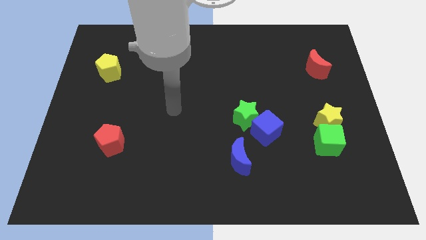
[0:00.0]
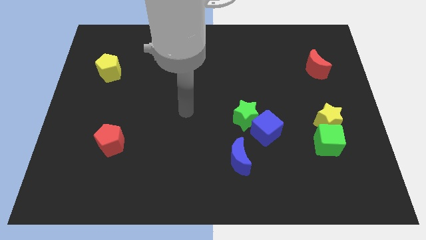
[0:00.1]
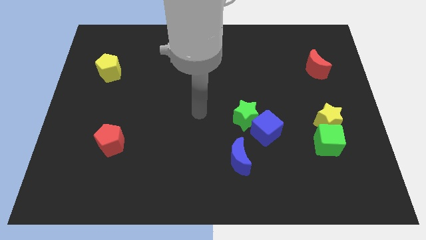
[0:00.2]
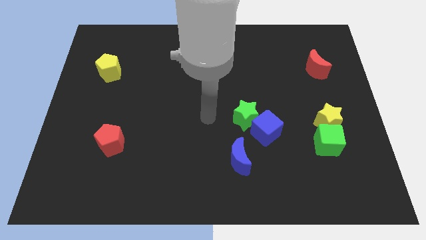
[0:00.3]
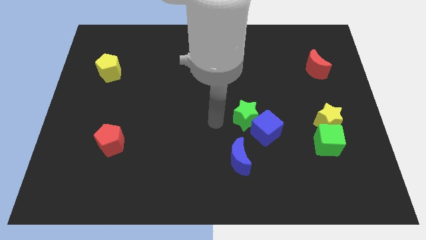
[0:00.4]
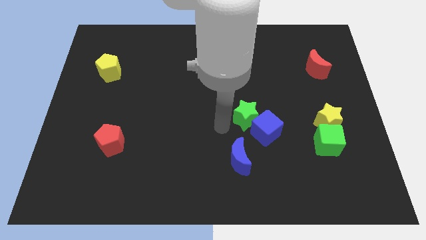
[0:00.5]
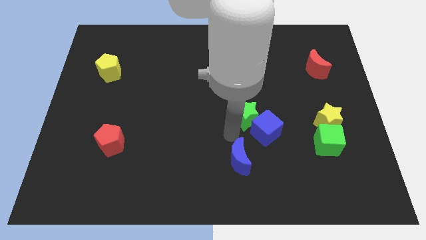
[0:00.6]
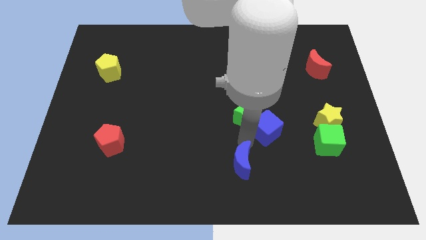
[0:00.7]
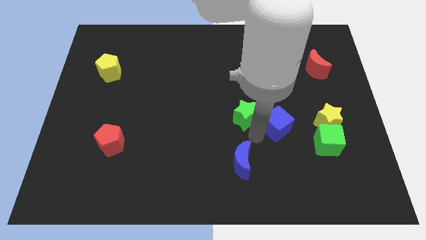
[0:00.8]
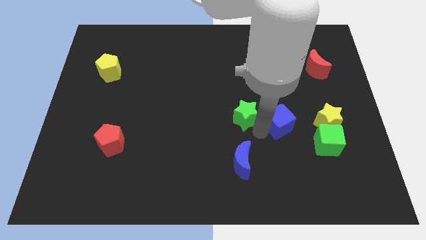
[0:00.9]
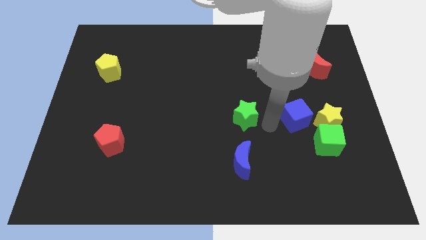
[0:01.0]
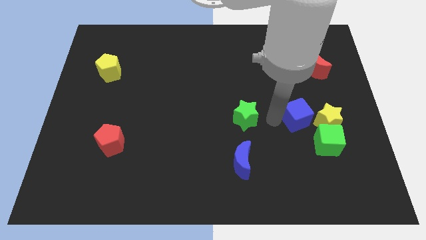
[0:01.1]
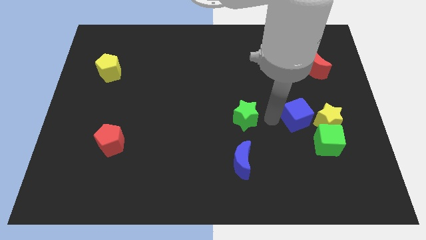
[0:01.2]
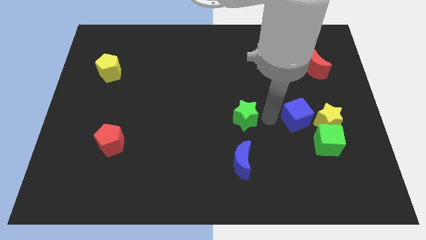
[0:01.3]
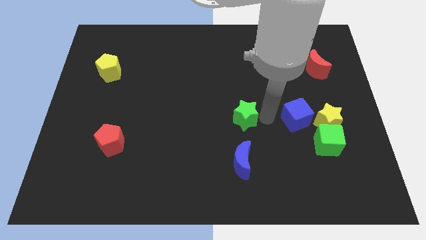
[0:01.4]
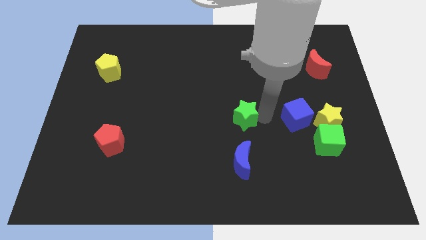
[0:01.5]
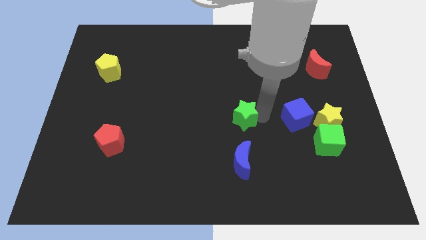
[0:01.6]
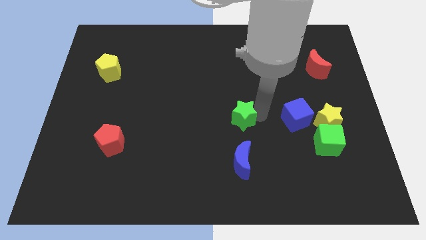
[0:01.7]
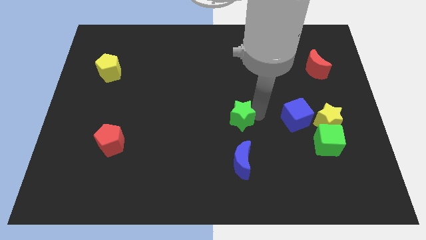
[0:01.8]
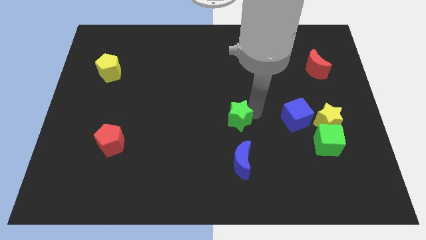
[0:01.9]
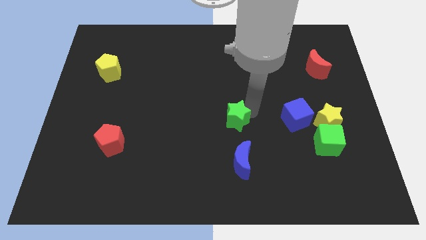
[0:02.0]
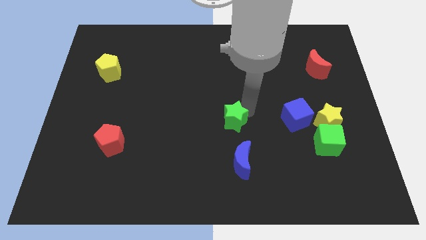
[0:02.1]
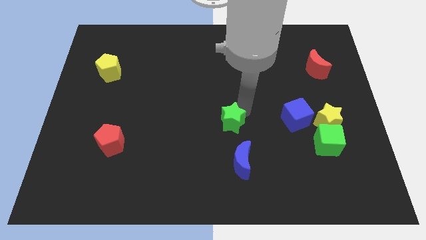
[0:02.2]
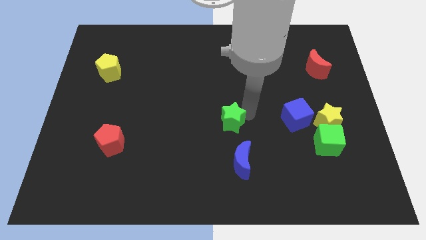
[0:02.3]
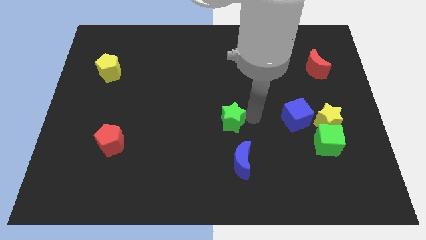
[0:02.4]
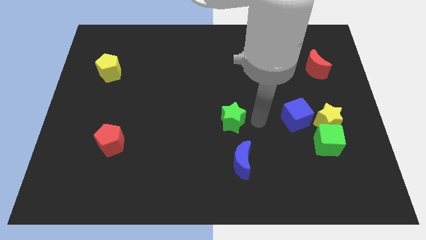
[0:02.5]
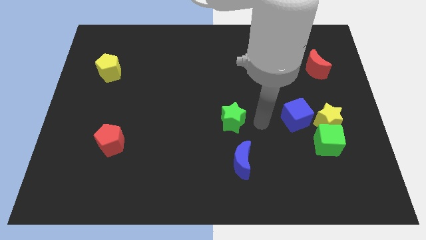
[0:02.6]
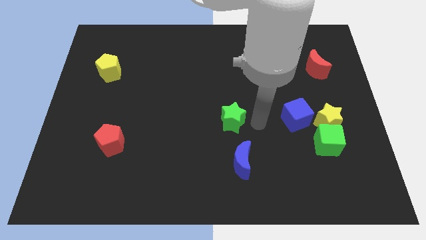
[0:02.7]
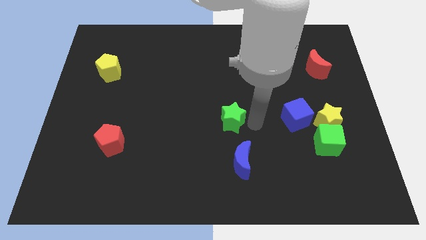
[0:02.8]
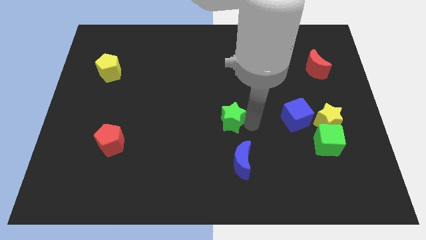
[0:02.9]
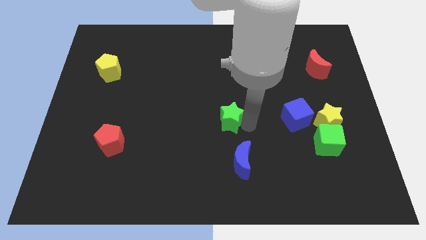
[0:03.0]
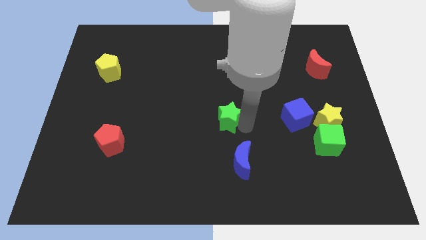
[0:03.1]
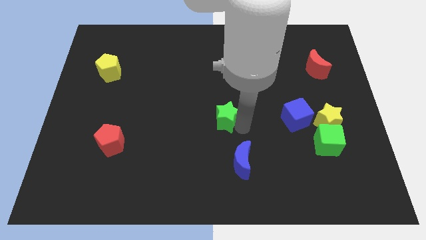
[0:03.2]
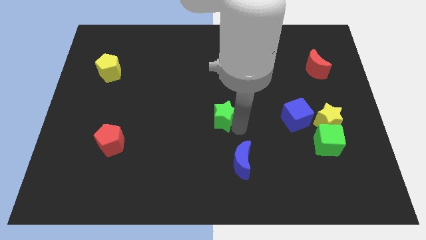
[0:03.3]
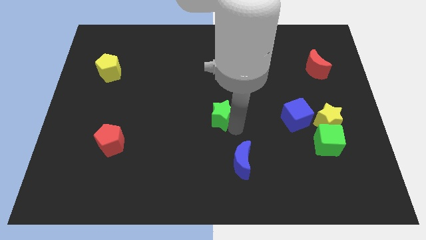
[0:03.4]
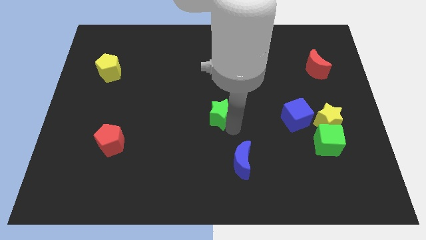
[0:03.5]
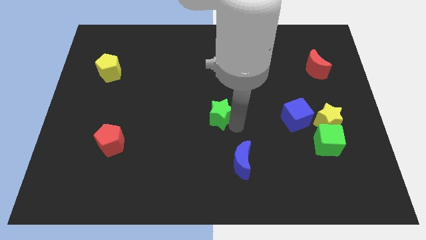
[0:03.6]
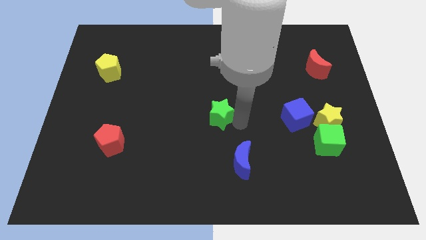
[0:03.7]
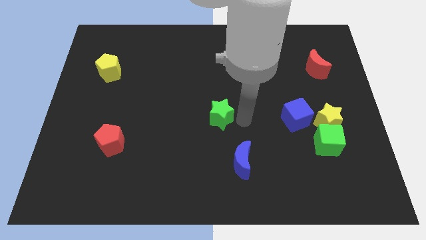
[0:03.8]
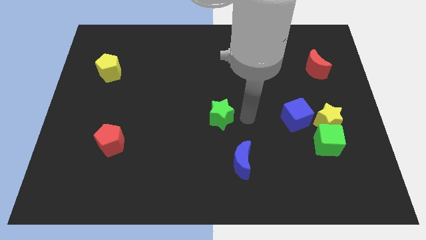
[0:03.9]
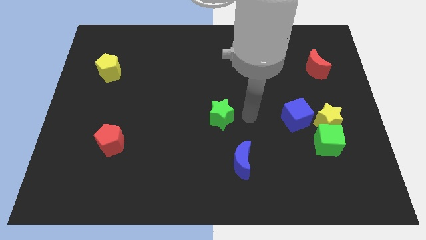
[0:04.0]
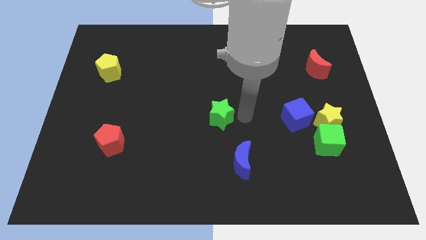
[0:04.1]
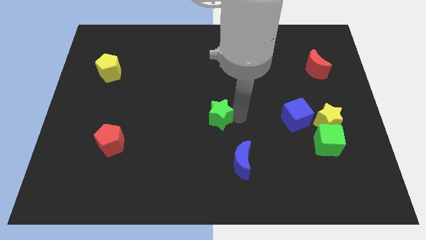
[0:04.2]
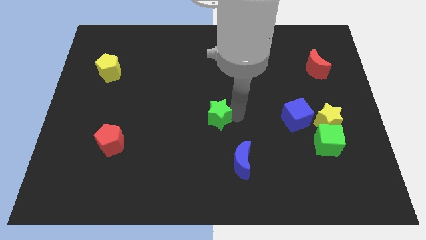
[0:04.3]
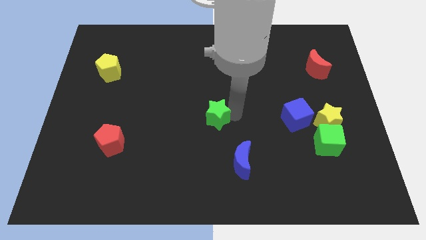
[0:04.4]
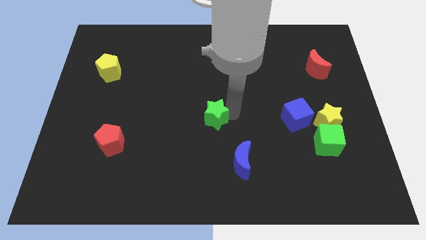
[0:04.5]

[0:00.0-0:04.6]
slightly move the green star left

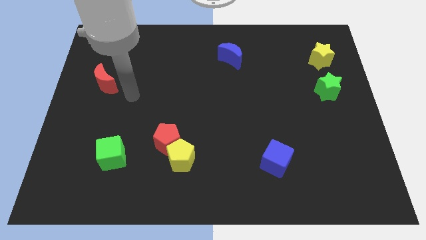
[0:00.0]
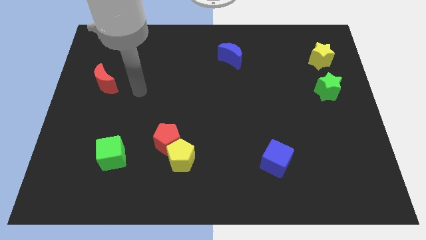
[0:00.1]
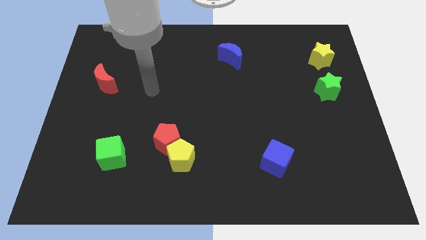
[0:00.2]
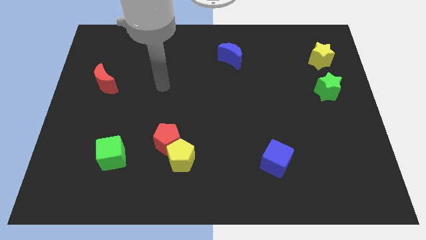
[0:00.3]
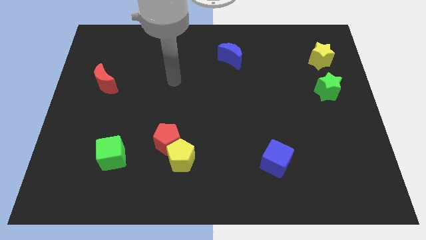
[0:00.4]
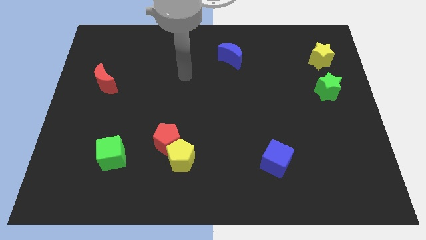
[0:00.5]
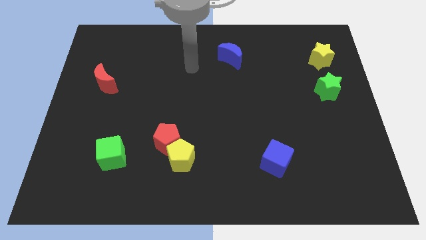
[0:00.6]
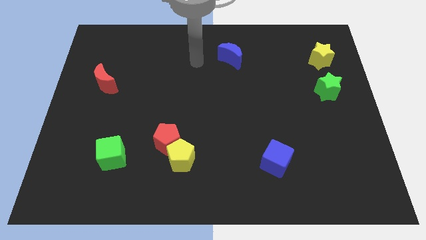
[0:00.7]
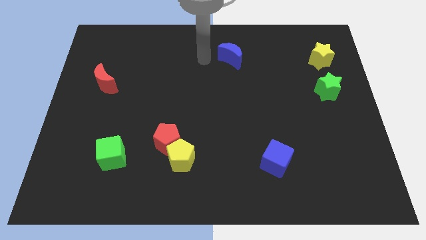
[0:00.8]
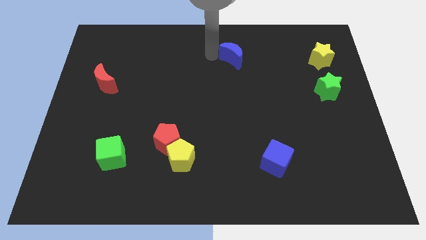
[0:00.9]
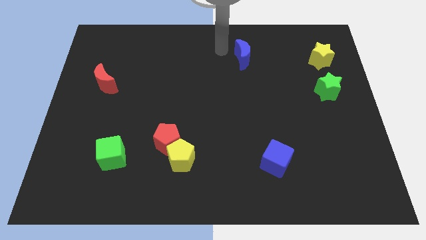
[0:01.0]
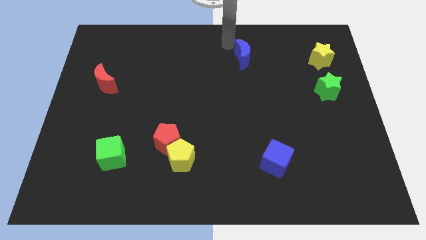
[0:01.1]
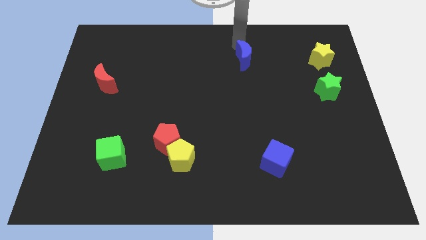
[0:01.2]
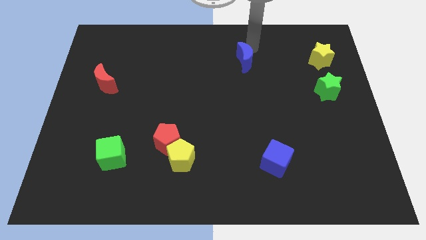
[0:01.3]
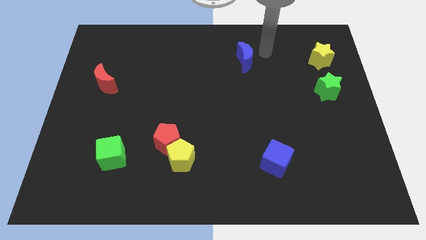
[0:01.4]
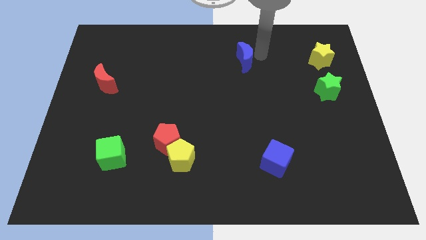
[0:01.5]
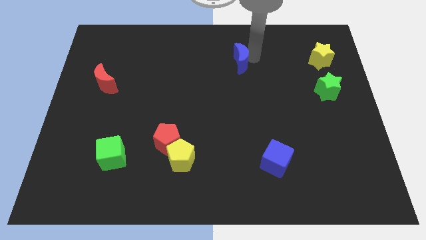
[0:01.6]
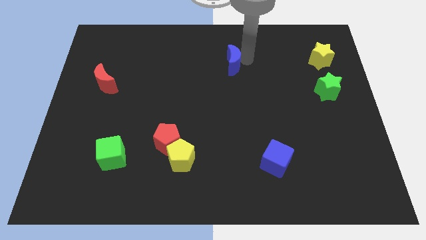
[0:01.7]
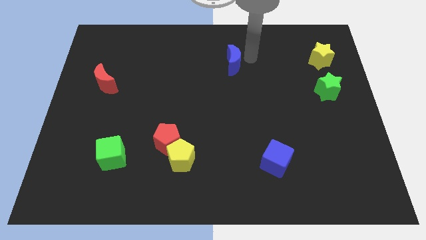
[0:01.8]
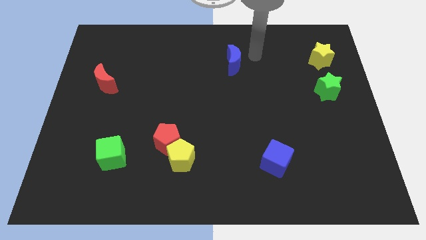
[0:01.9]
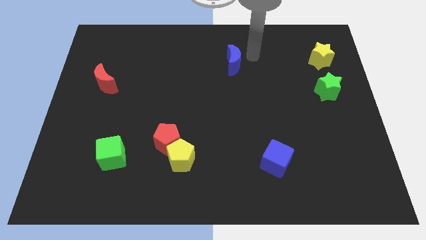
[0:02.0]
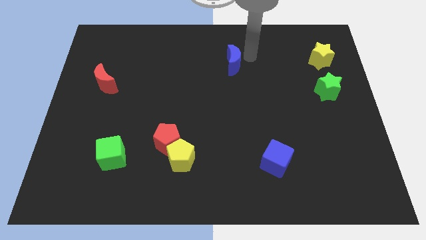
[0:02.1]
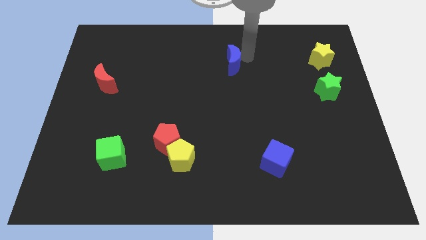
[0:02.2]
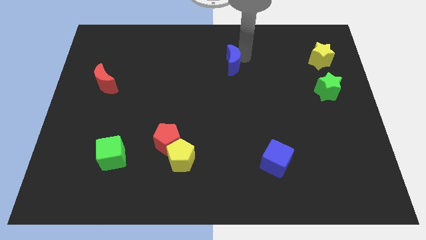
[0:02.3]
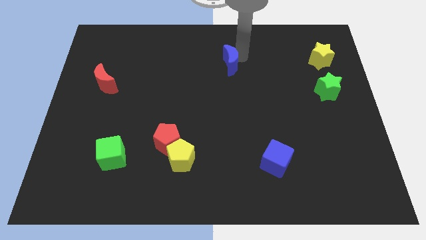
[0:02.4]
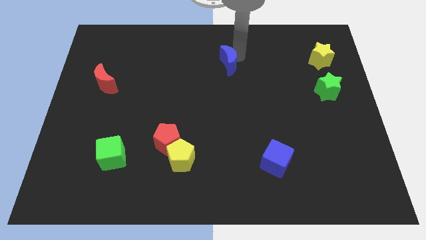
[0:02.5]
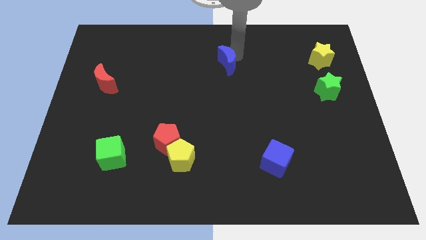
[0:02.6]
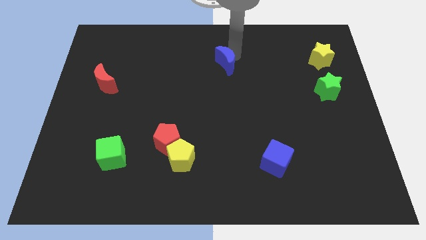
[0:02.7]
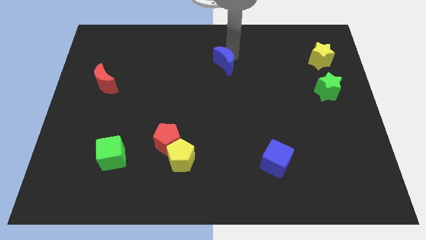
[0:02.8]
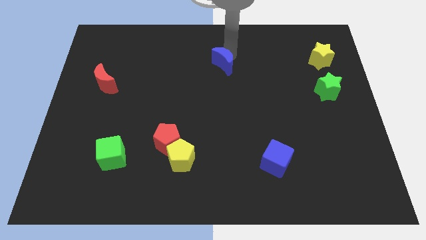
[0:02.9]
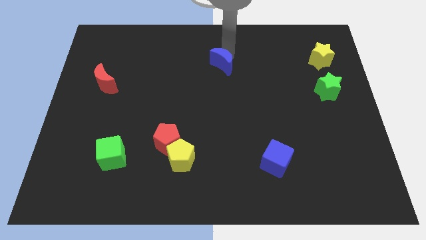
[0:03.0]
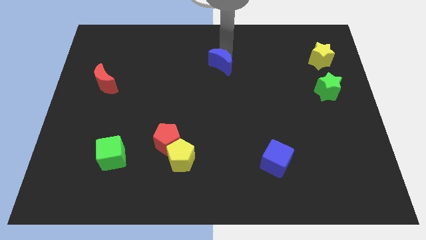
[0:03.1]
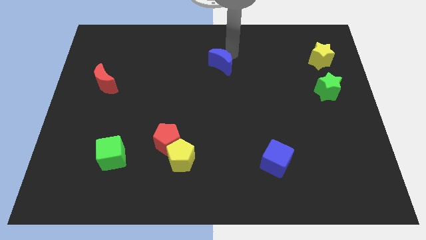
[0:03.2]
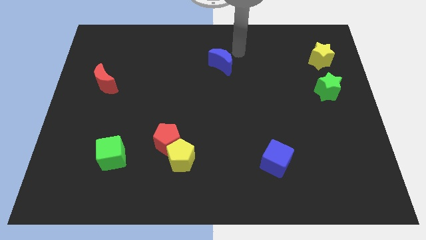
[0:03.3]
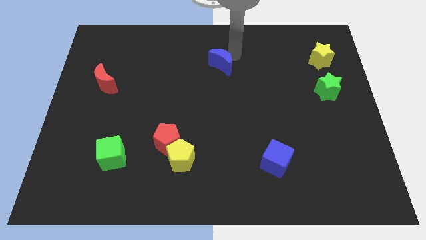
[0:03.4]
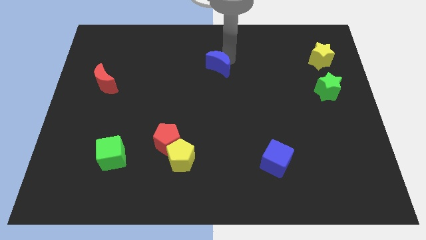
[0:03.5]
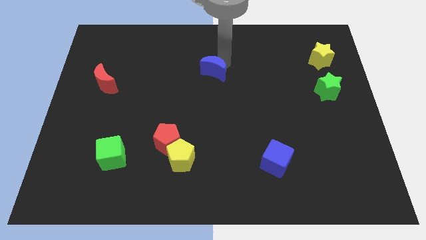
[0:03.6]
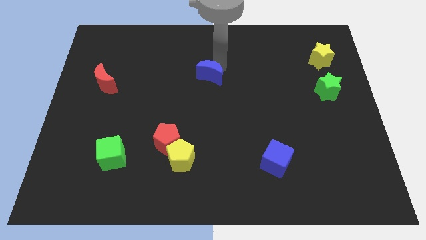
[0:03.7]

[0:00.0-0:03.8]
slightly slide the blue moon diagonally down and left
